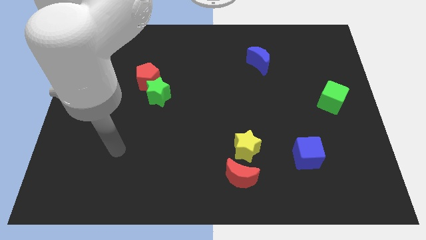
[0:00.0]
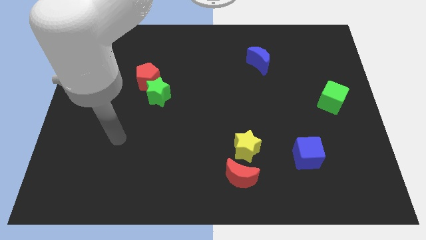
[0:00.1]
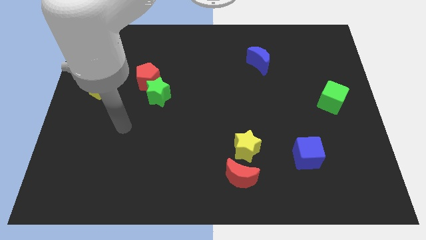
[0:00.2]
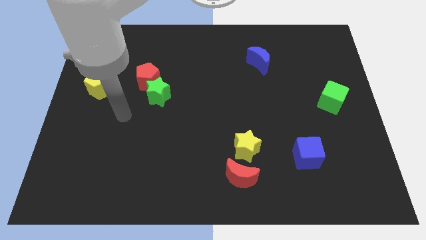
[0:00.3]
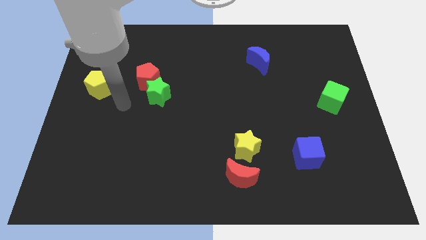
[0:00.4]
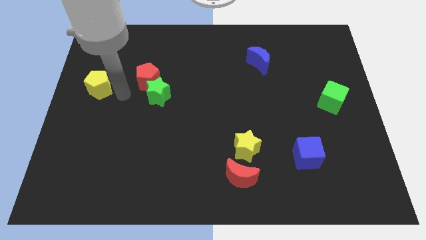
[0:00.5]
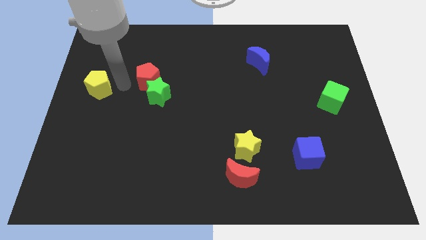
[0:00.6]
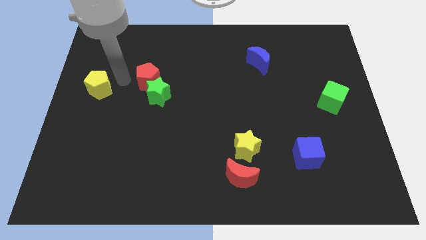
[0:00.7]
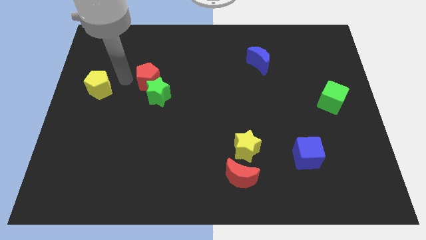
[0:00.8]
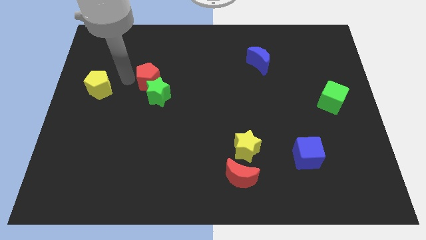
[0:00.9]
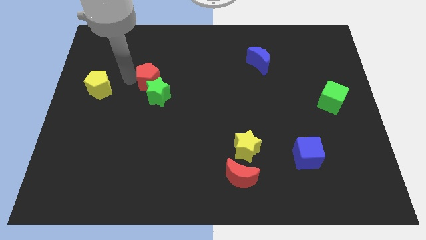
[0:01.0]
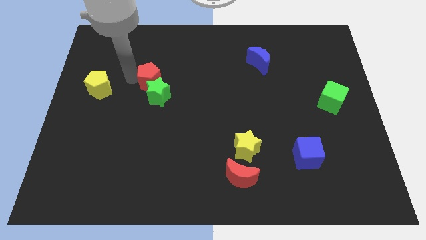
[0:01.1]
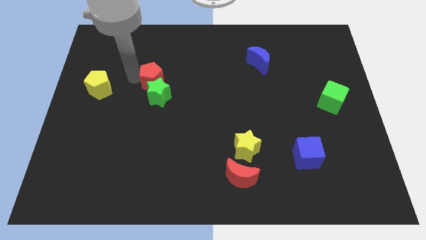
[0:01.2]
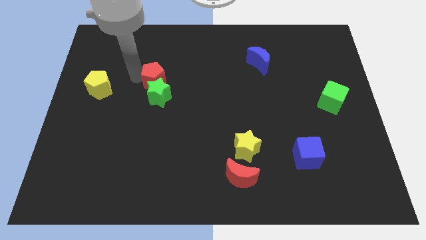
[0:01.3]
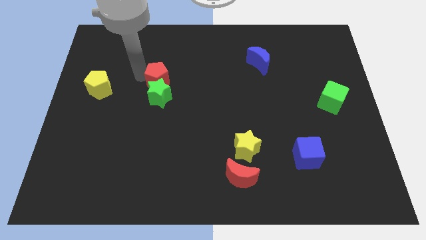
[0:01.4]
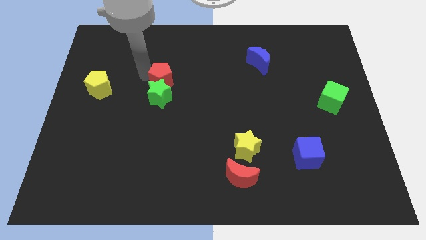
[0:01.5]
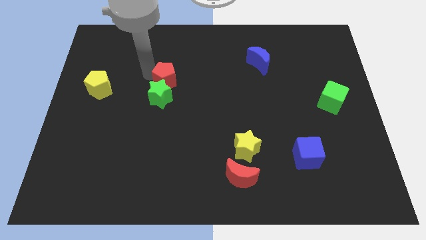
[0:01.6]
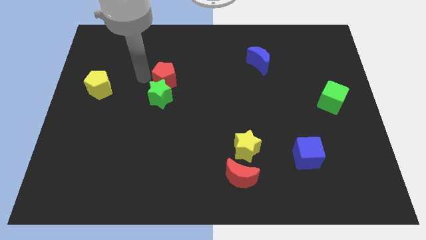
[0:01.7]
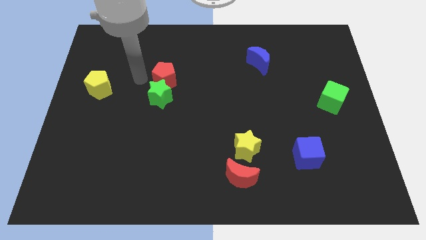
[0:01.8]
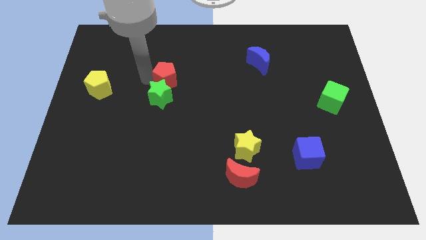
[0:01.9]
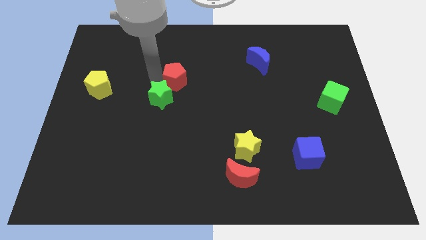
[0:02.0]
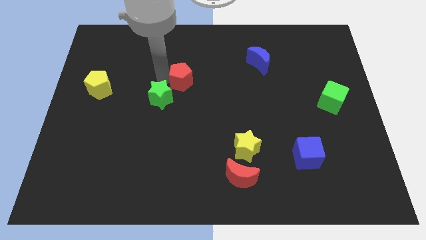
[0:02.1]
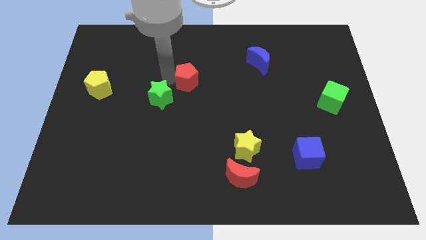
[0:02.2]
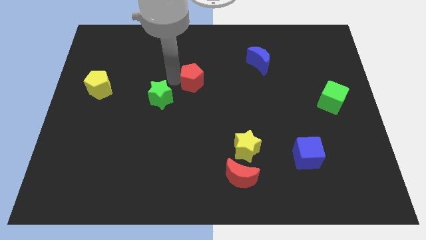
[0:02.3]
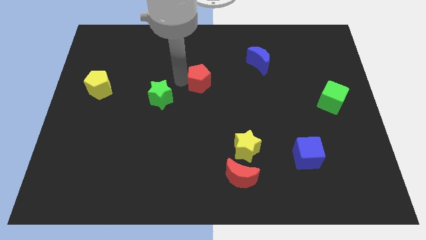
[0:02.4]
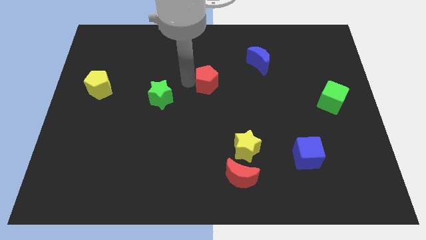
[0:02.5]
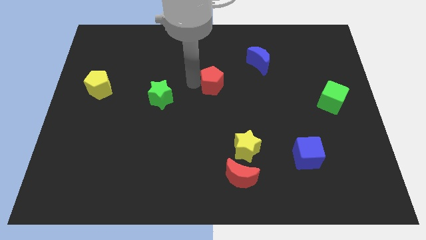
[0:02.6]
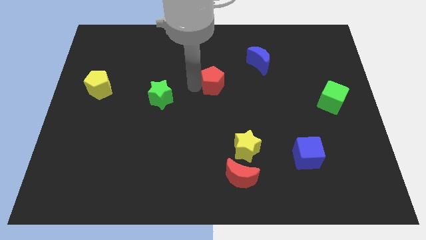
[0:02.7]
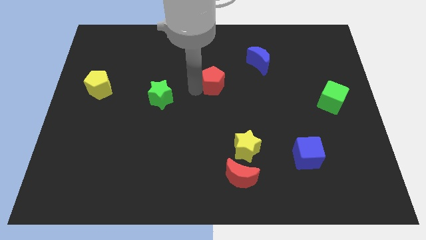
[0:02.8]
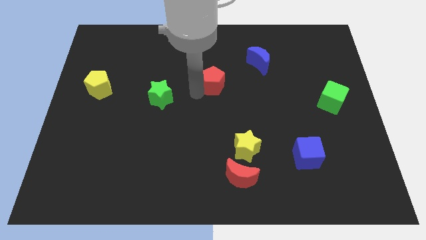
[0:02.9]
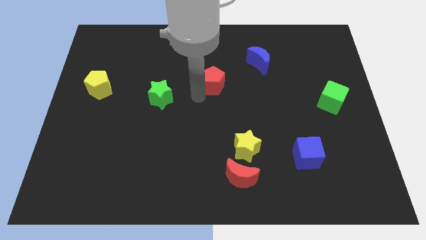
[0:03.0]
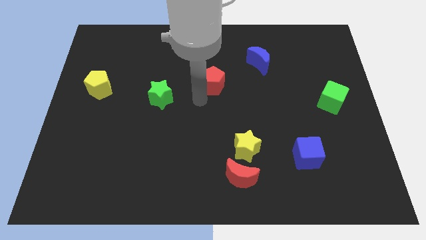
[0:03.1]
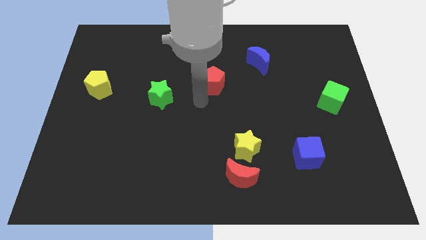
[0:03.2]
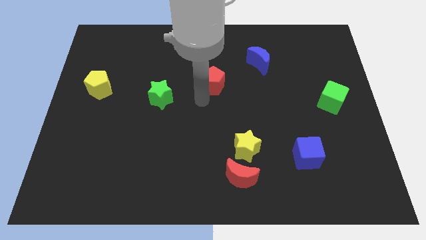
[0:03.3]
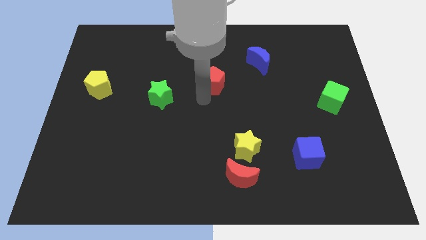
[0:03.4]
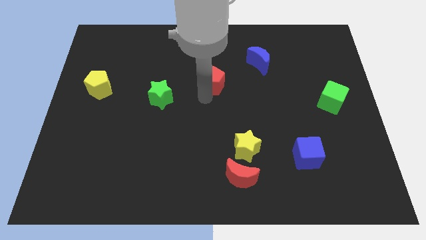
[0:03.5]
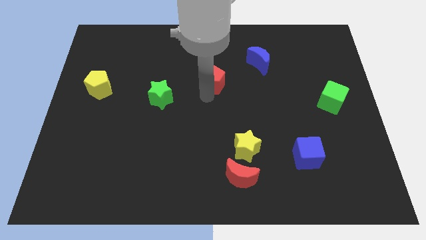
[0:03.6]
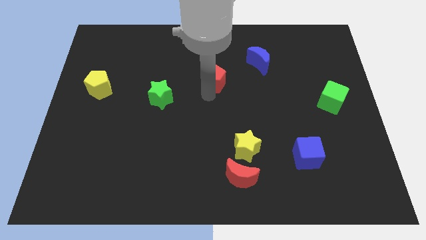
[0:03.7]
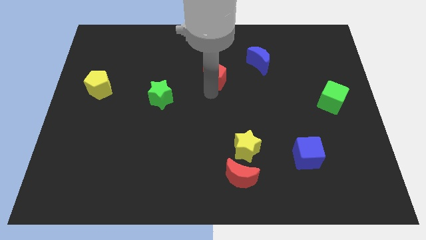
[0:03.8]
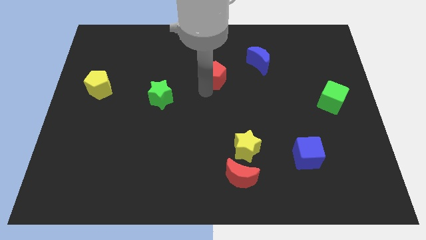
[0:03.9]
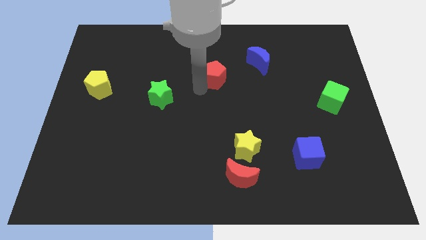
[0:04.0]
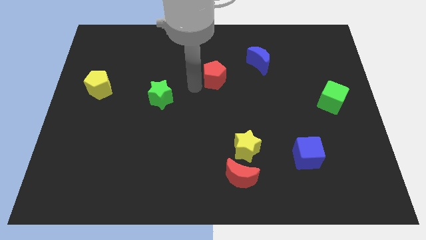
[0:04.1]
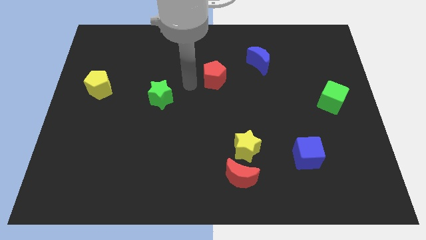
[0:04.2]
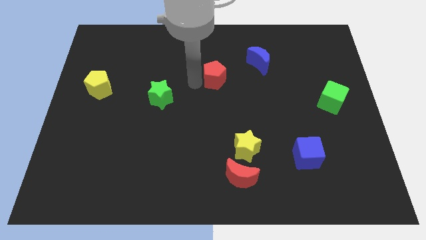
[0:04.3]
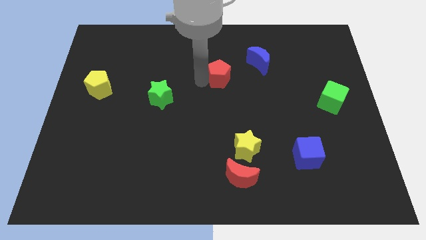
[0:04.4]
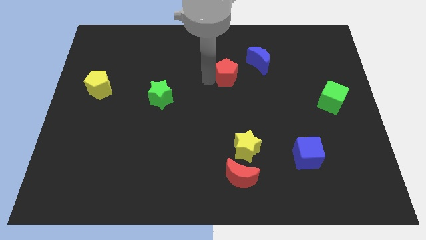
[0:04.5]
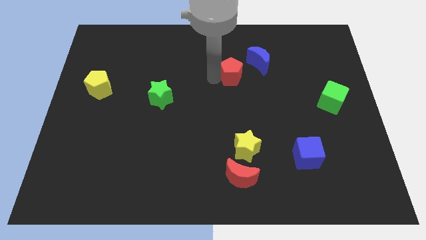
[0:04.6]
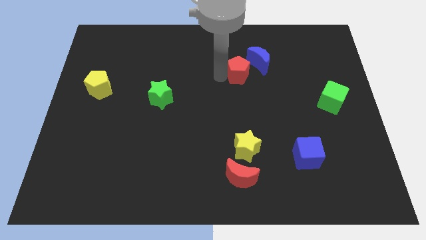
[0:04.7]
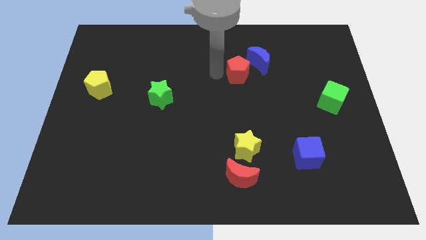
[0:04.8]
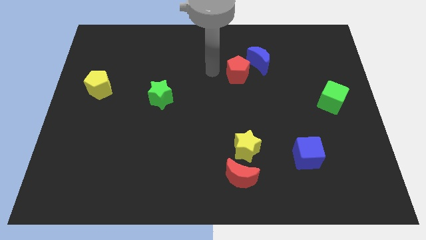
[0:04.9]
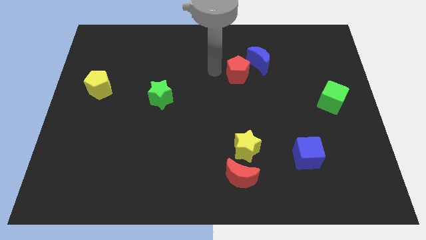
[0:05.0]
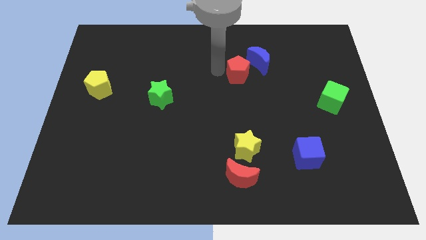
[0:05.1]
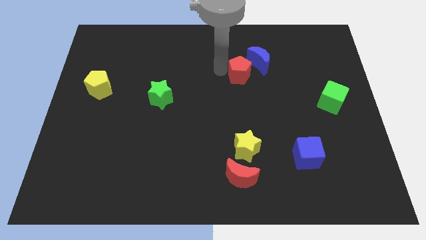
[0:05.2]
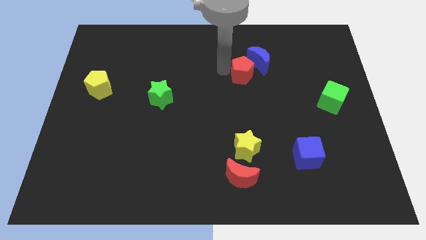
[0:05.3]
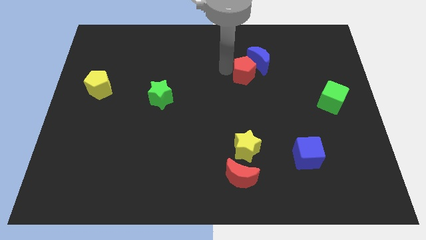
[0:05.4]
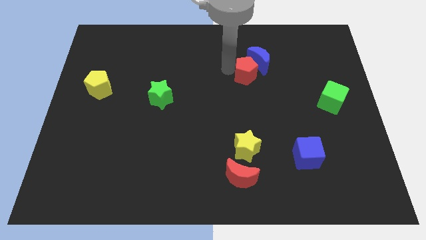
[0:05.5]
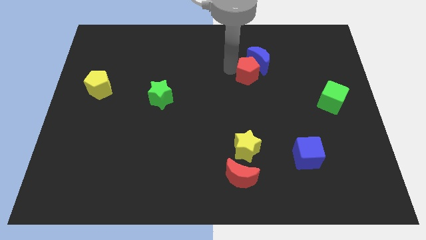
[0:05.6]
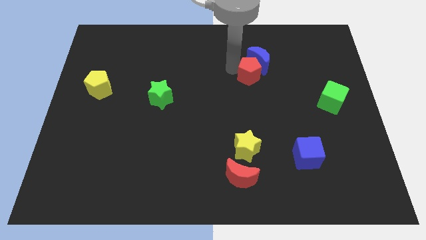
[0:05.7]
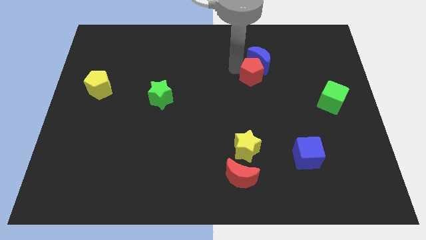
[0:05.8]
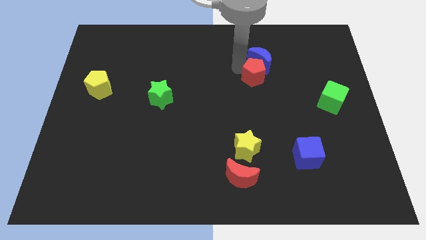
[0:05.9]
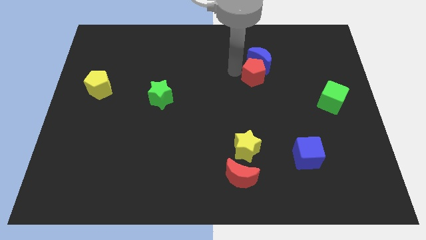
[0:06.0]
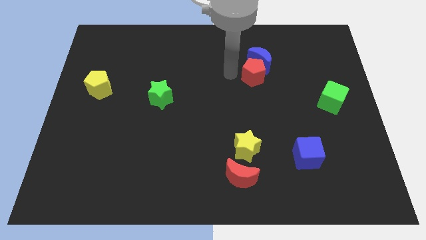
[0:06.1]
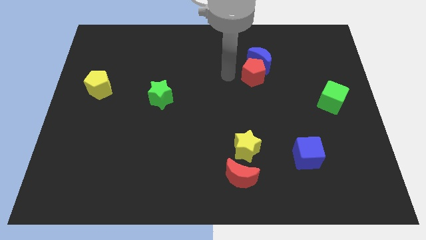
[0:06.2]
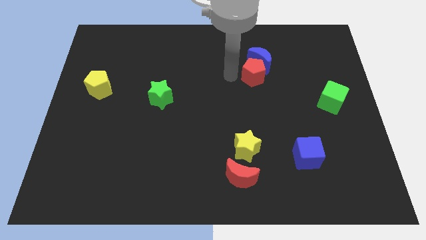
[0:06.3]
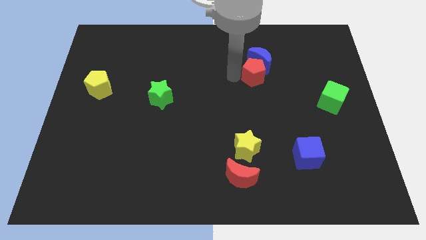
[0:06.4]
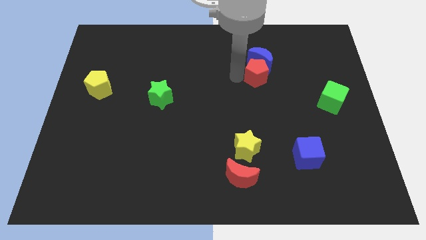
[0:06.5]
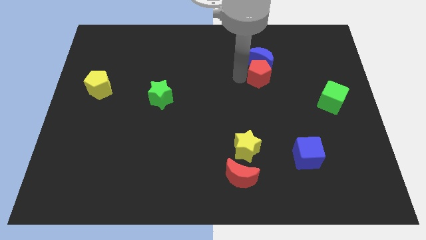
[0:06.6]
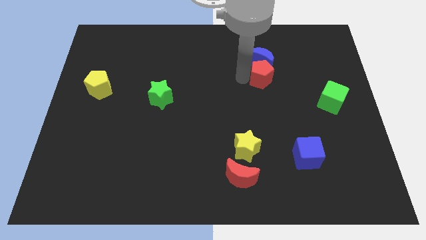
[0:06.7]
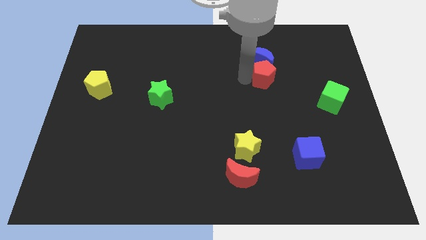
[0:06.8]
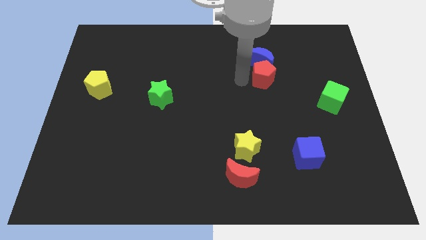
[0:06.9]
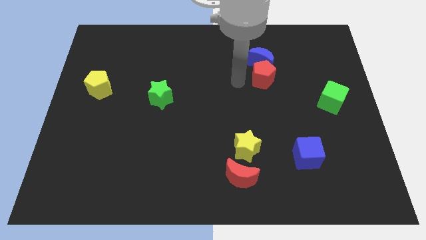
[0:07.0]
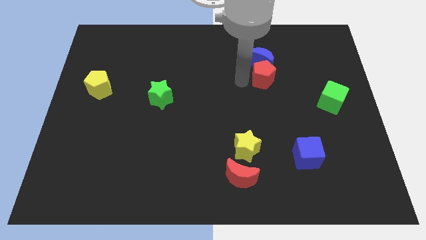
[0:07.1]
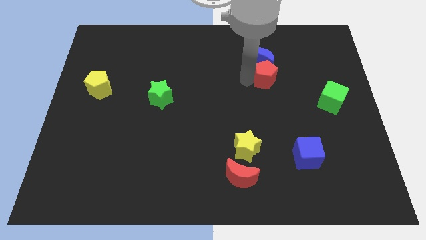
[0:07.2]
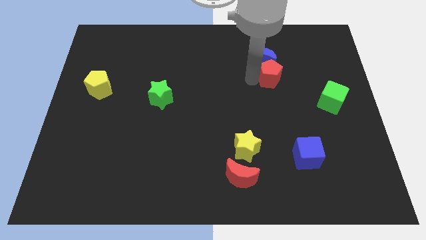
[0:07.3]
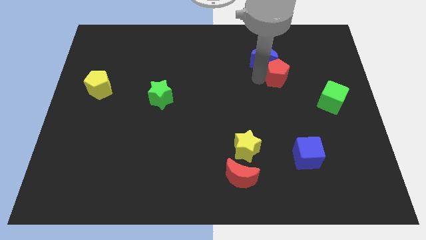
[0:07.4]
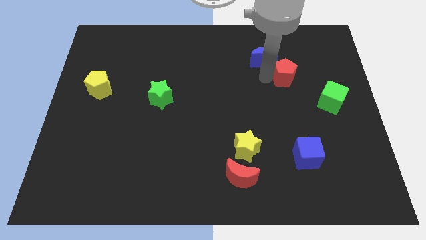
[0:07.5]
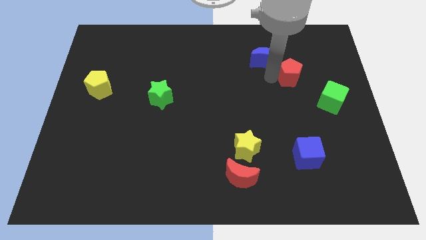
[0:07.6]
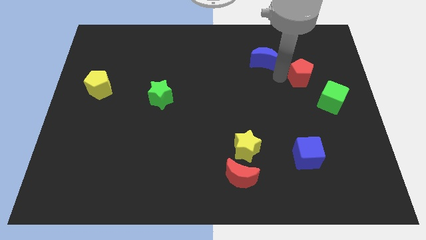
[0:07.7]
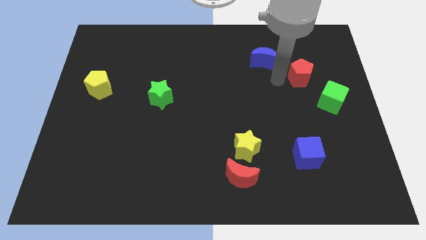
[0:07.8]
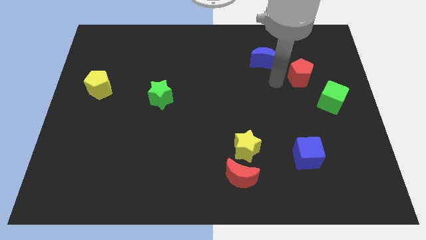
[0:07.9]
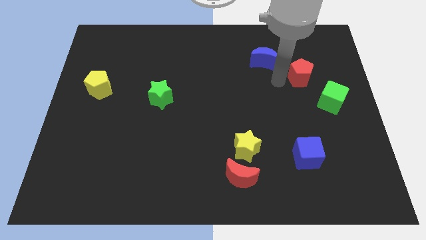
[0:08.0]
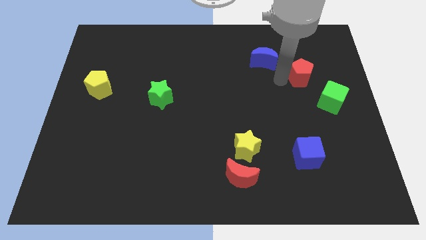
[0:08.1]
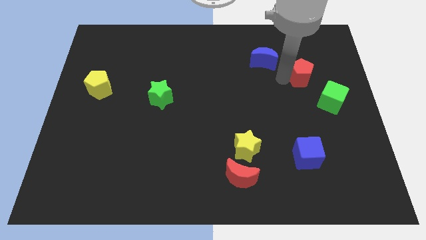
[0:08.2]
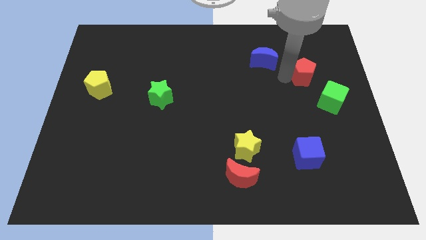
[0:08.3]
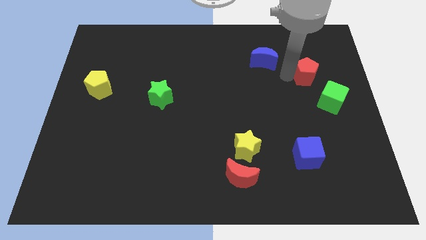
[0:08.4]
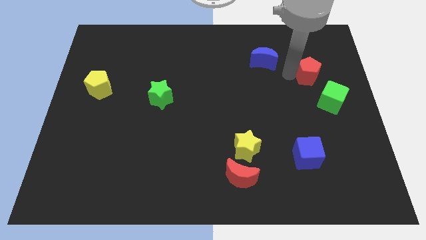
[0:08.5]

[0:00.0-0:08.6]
slide the red pentagon to the top of the green cube
